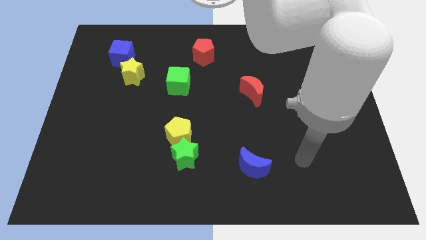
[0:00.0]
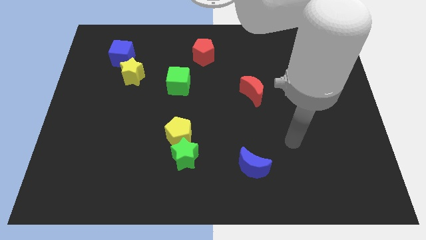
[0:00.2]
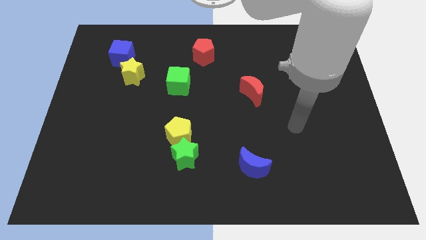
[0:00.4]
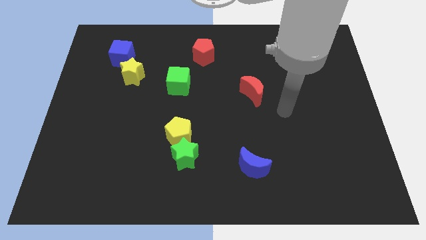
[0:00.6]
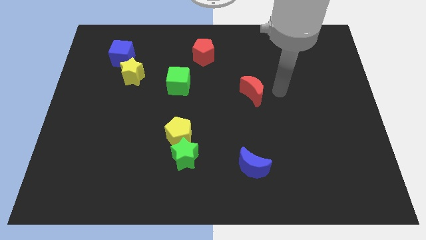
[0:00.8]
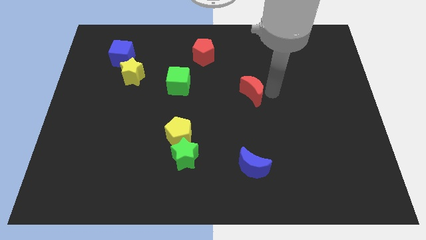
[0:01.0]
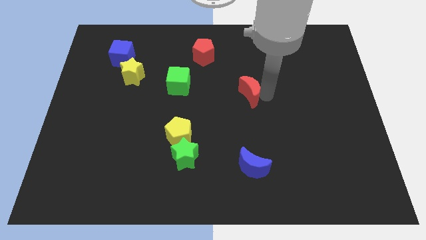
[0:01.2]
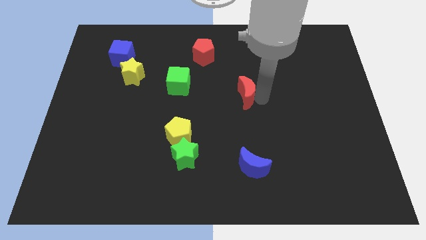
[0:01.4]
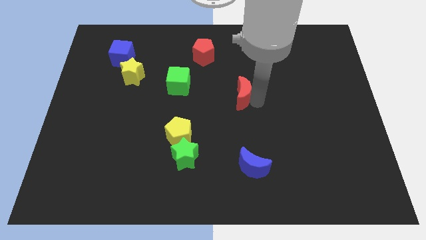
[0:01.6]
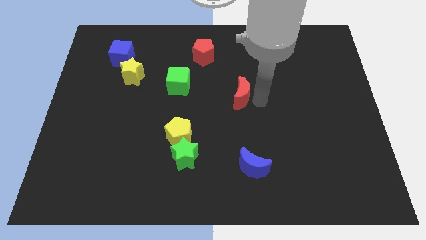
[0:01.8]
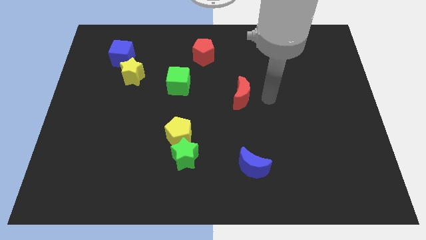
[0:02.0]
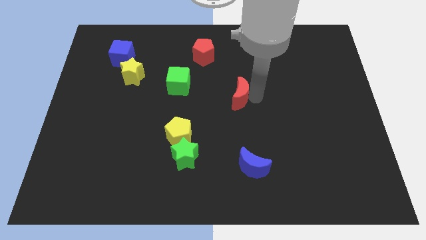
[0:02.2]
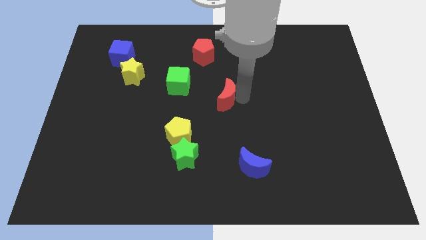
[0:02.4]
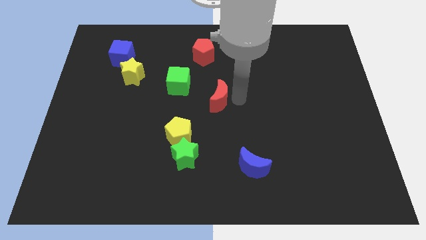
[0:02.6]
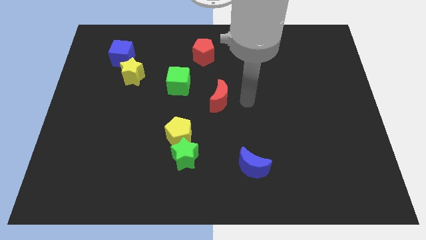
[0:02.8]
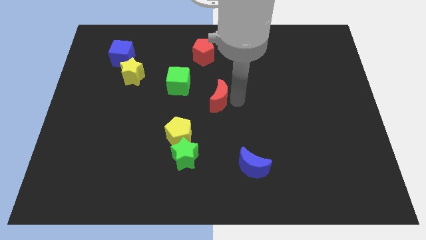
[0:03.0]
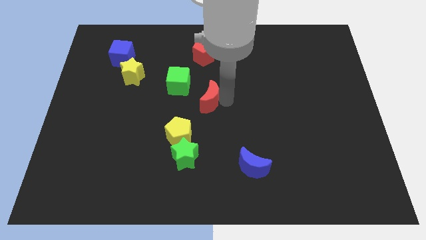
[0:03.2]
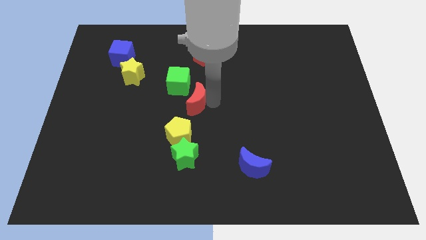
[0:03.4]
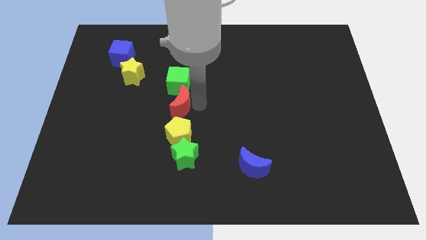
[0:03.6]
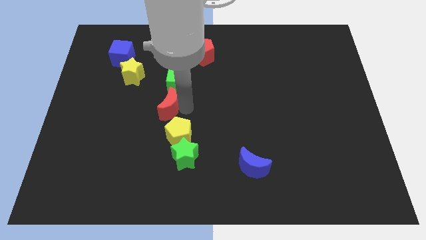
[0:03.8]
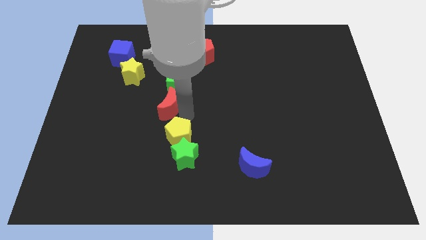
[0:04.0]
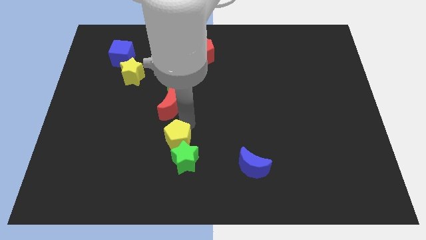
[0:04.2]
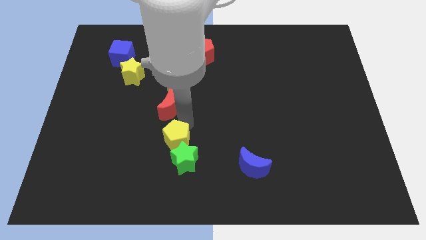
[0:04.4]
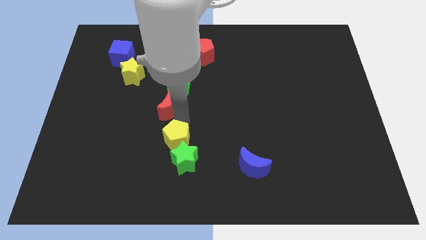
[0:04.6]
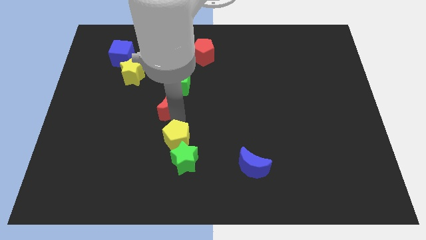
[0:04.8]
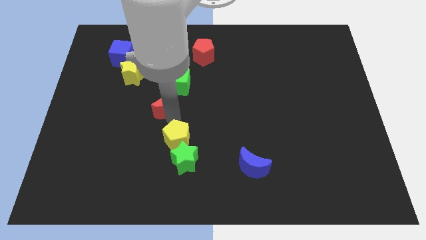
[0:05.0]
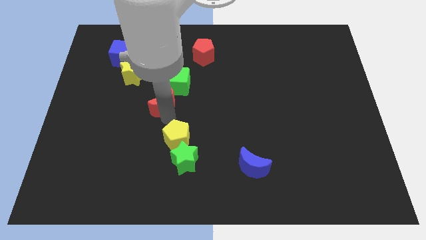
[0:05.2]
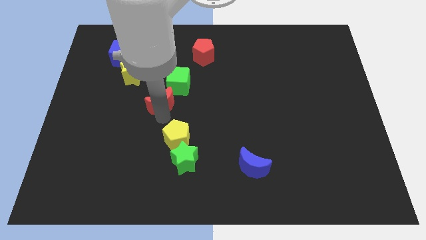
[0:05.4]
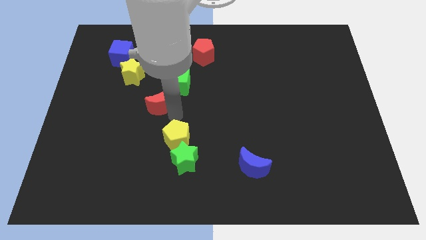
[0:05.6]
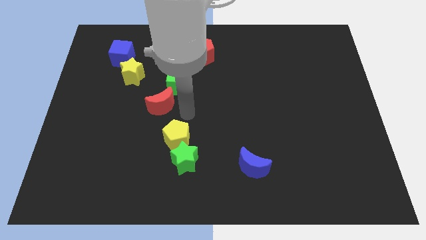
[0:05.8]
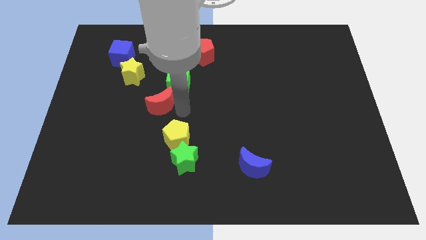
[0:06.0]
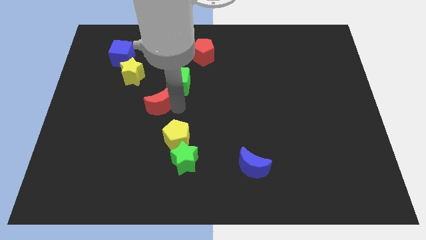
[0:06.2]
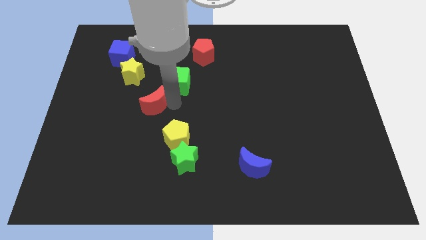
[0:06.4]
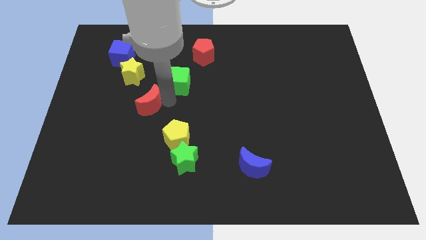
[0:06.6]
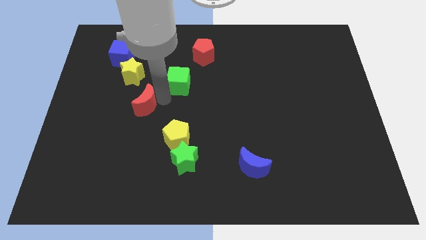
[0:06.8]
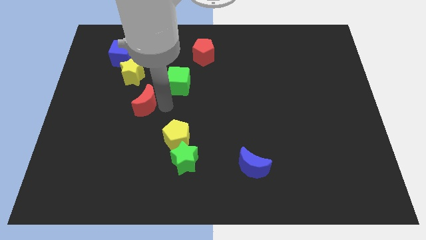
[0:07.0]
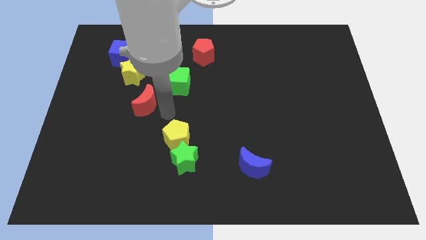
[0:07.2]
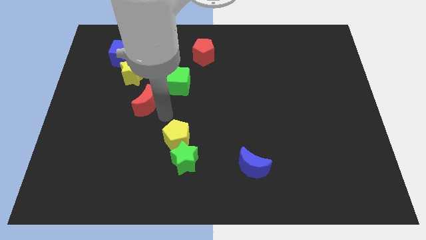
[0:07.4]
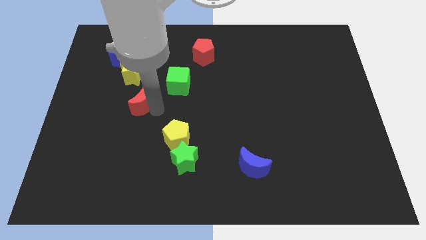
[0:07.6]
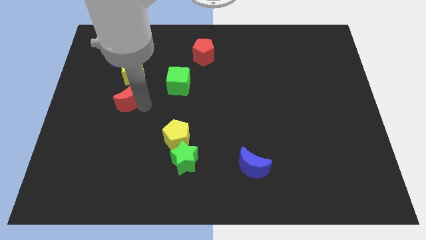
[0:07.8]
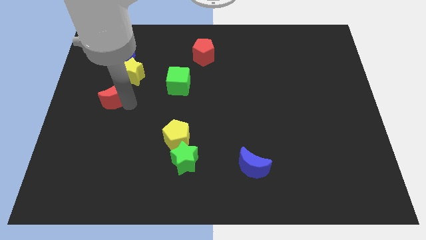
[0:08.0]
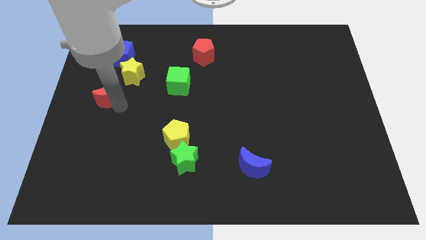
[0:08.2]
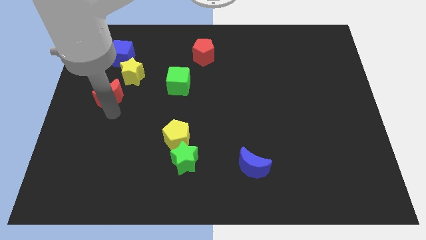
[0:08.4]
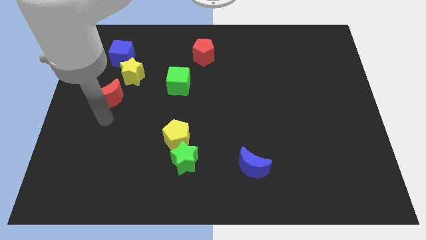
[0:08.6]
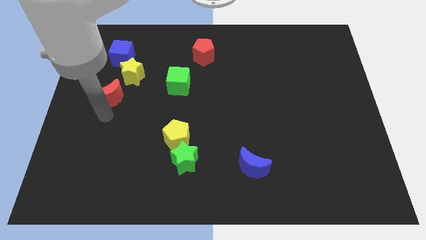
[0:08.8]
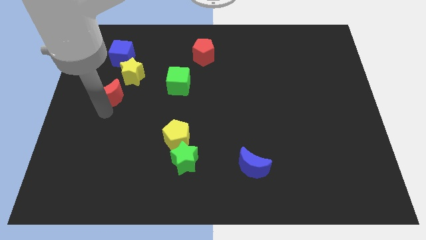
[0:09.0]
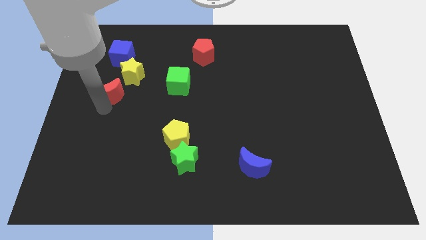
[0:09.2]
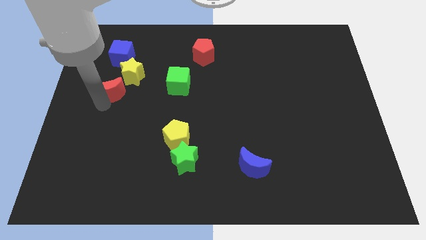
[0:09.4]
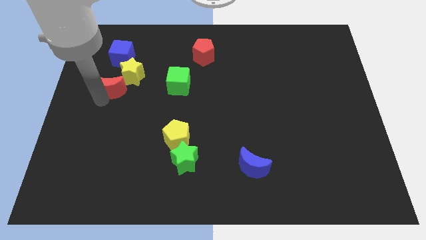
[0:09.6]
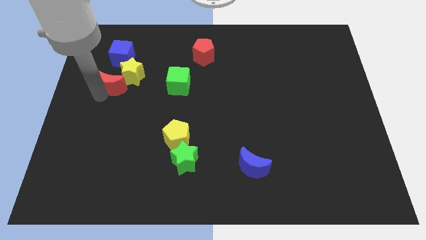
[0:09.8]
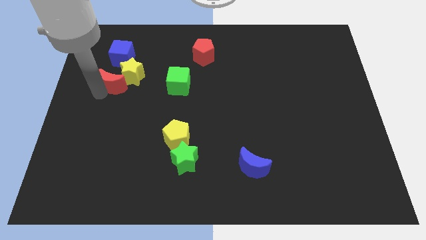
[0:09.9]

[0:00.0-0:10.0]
move the red moon to the left of the green cube

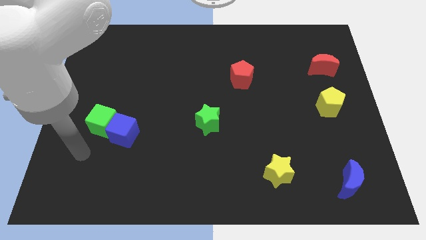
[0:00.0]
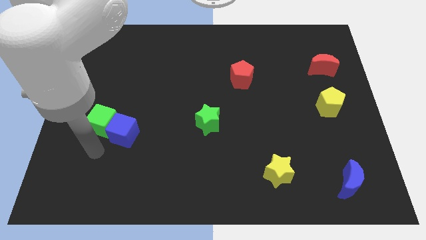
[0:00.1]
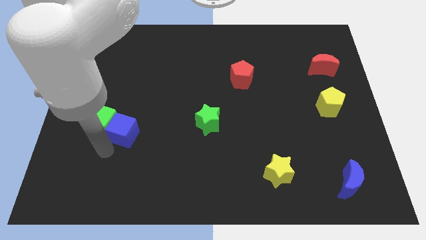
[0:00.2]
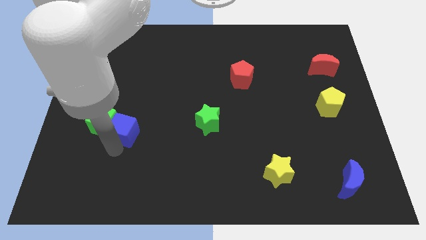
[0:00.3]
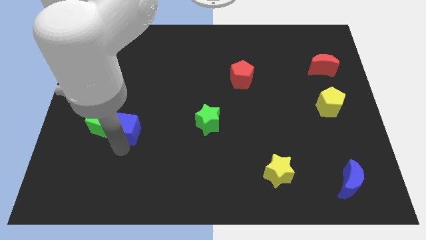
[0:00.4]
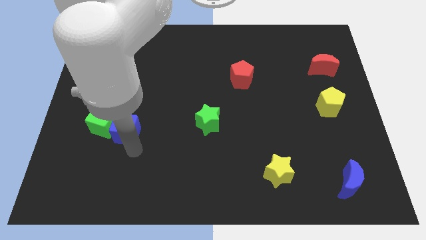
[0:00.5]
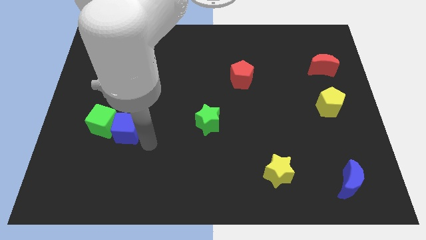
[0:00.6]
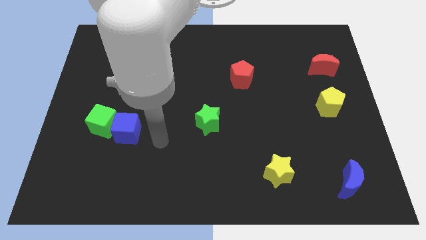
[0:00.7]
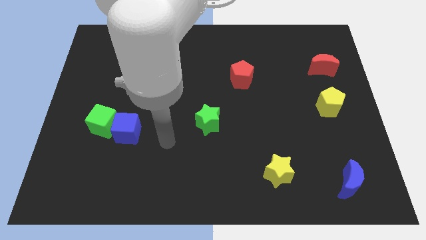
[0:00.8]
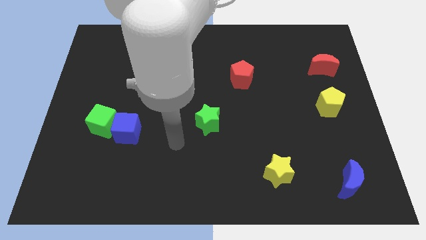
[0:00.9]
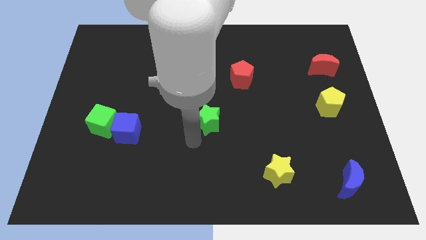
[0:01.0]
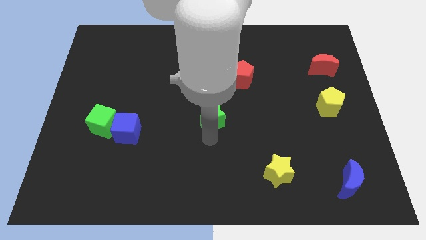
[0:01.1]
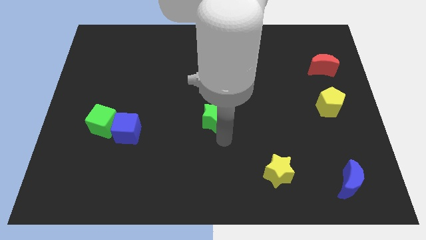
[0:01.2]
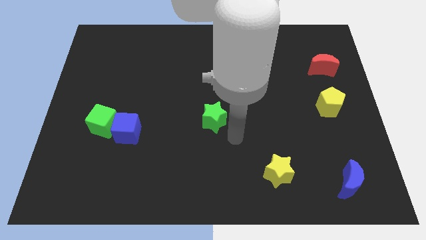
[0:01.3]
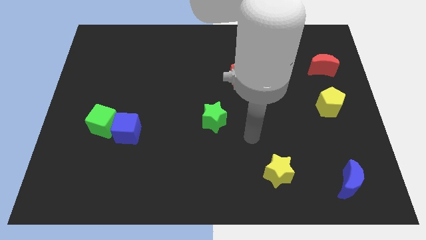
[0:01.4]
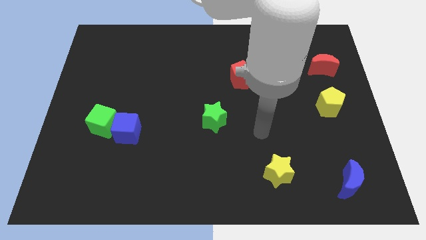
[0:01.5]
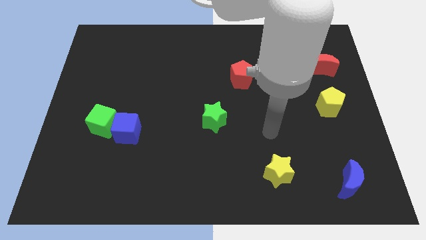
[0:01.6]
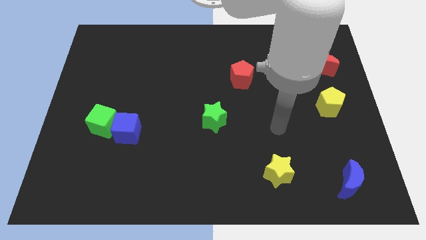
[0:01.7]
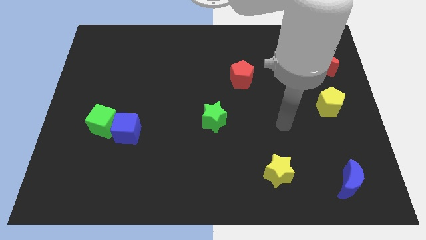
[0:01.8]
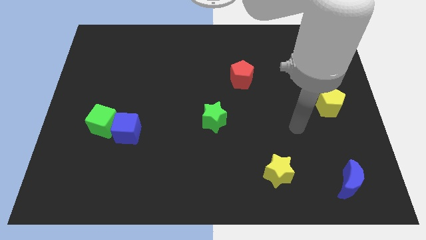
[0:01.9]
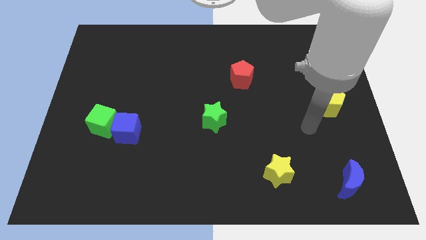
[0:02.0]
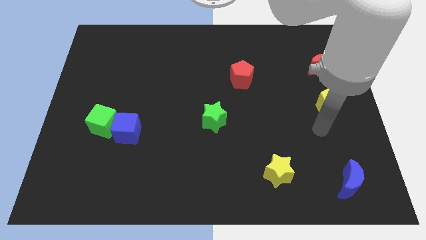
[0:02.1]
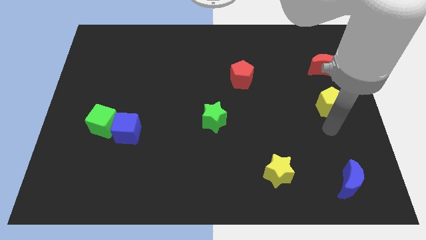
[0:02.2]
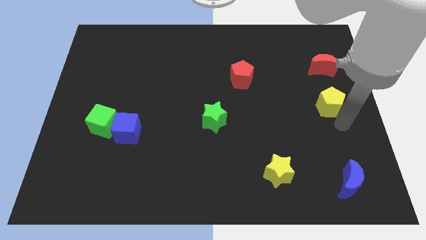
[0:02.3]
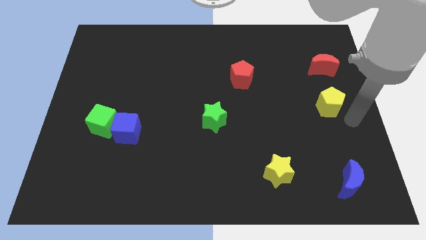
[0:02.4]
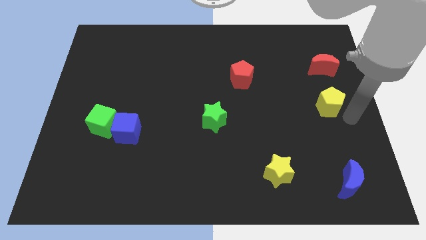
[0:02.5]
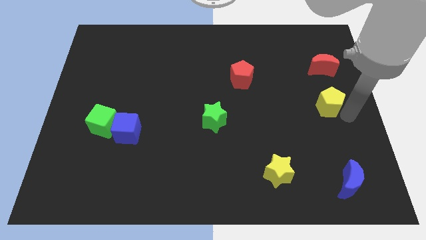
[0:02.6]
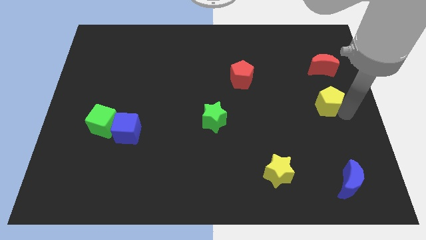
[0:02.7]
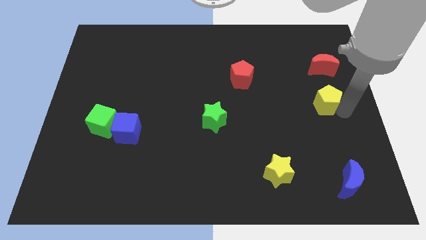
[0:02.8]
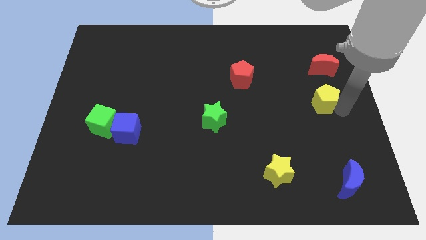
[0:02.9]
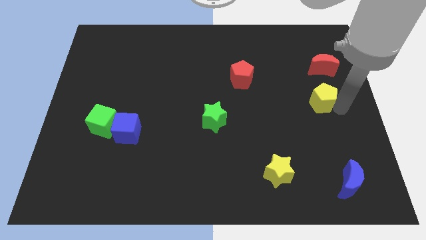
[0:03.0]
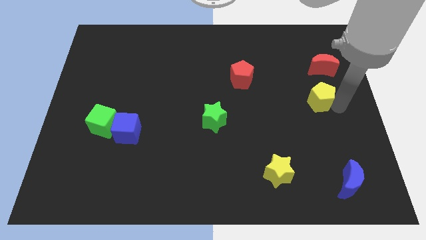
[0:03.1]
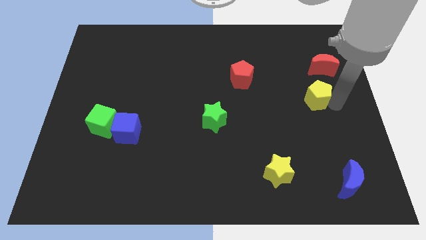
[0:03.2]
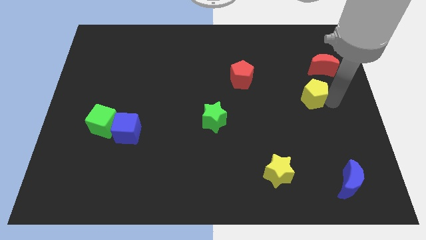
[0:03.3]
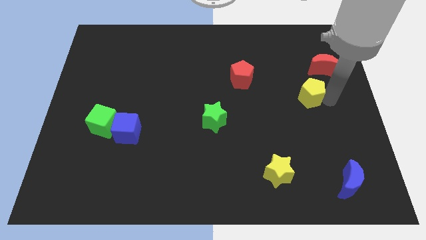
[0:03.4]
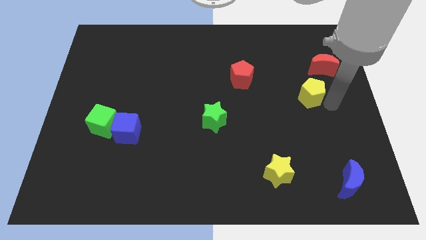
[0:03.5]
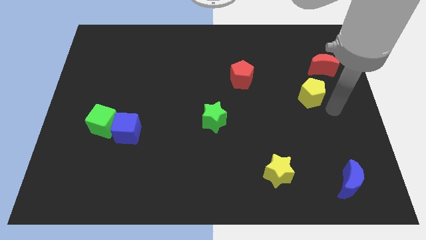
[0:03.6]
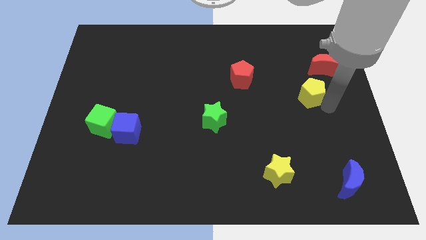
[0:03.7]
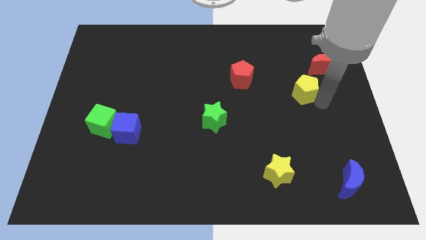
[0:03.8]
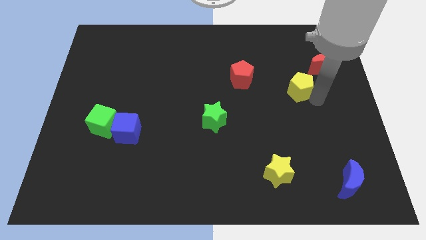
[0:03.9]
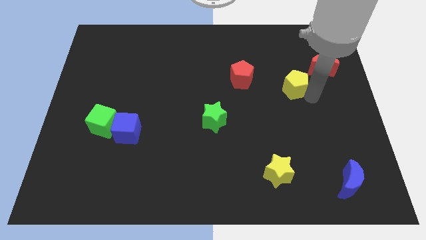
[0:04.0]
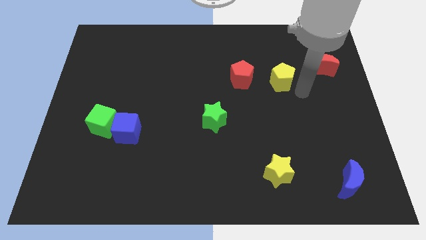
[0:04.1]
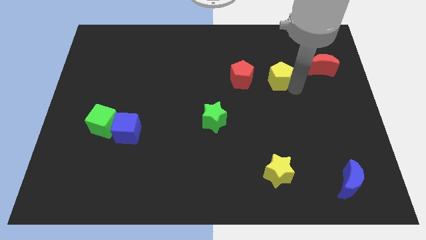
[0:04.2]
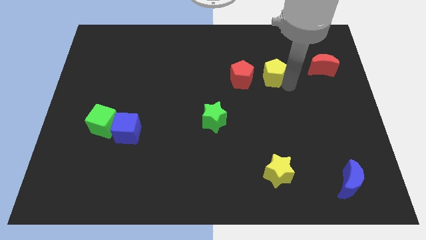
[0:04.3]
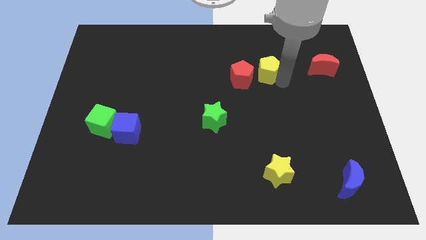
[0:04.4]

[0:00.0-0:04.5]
put the yellow pentagon to the top right side of the red pentagon
